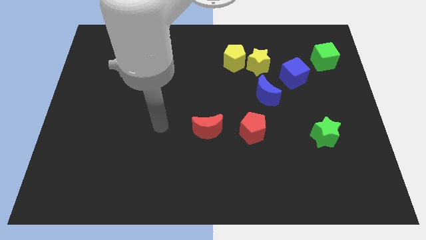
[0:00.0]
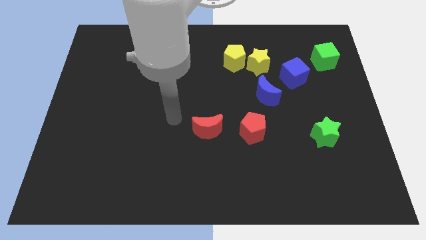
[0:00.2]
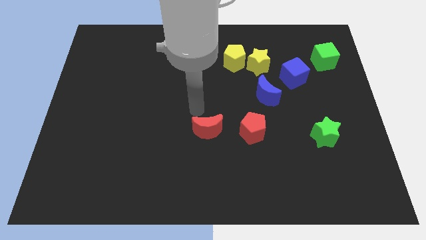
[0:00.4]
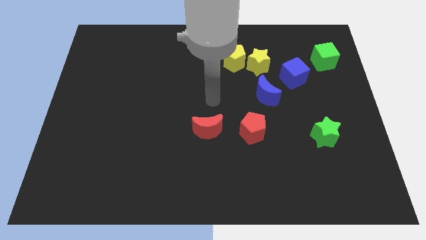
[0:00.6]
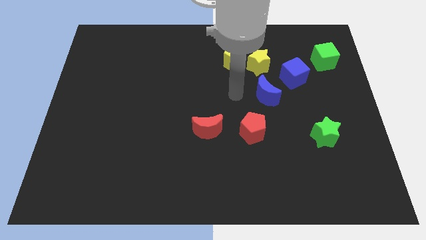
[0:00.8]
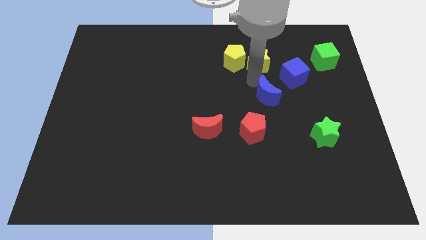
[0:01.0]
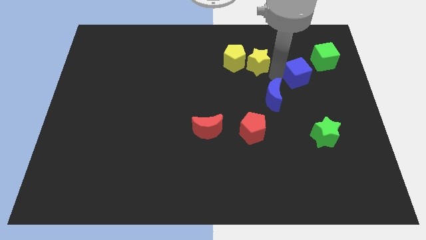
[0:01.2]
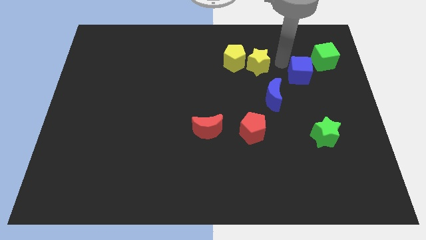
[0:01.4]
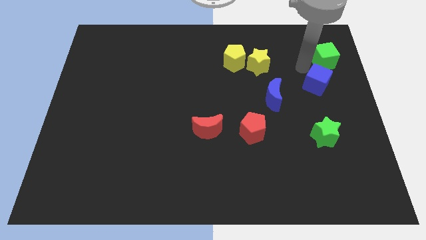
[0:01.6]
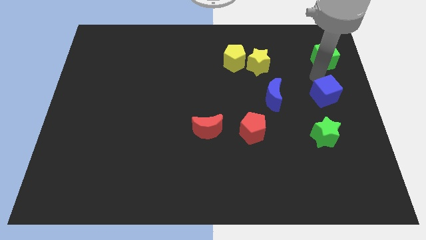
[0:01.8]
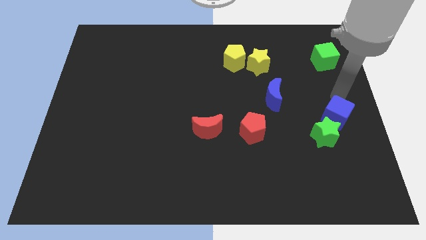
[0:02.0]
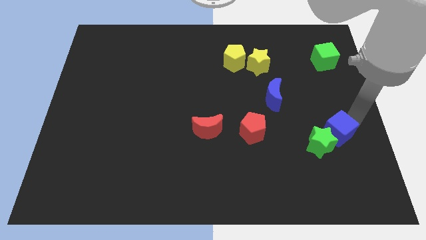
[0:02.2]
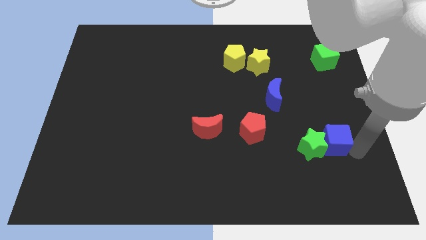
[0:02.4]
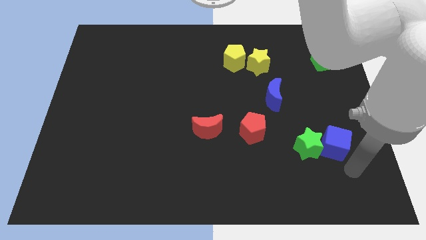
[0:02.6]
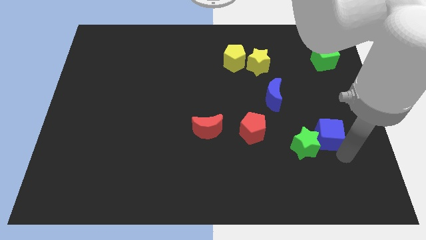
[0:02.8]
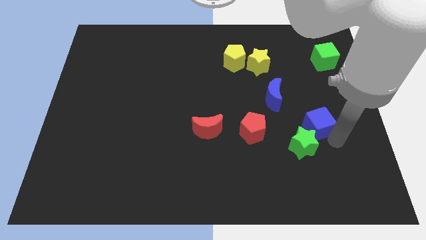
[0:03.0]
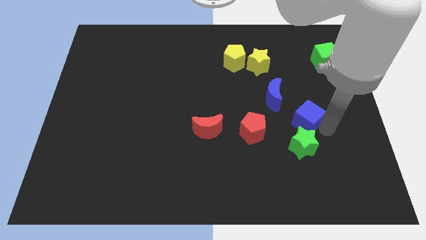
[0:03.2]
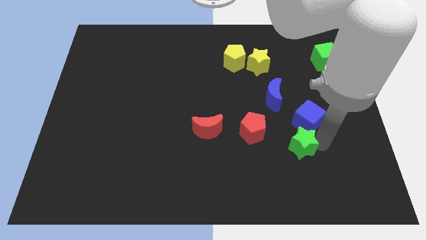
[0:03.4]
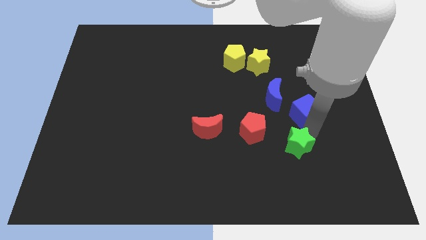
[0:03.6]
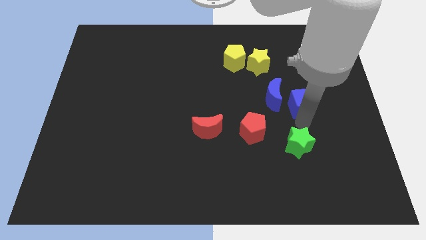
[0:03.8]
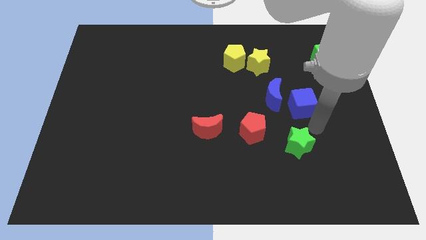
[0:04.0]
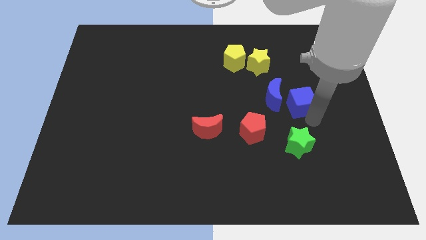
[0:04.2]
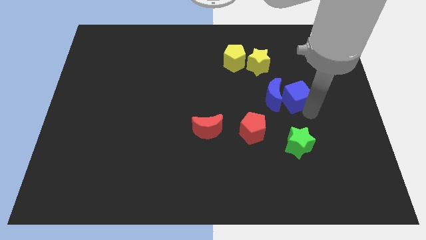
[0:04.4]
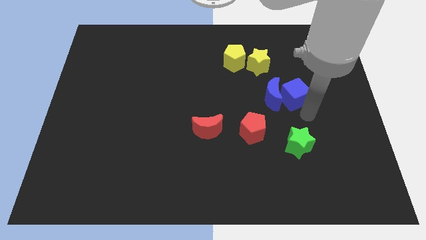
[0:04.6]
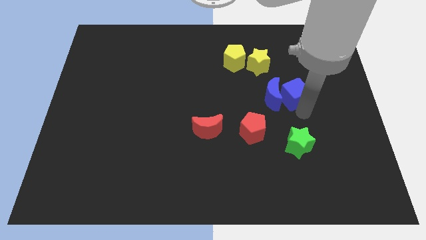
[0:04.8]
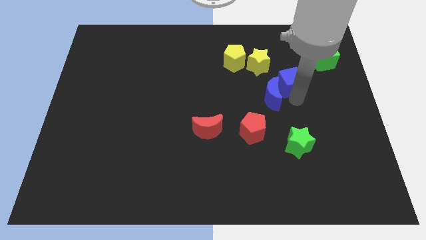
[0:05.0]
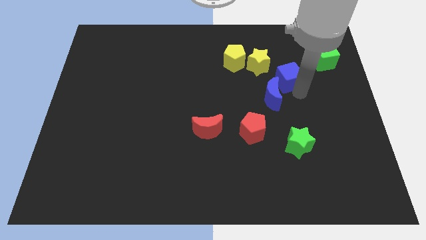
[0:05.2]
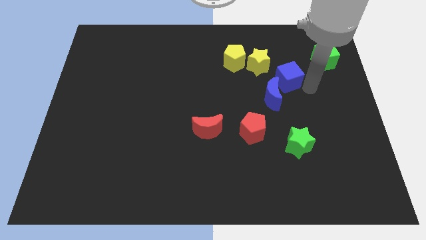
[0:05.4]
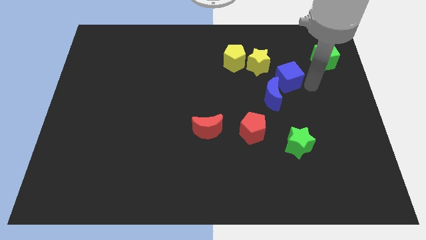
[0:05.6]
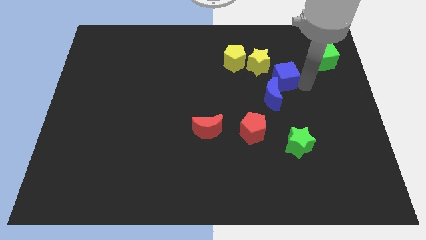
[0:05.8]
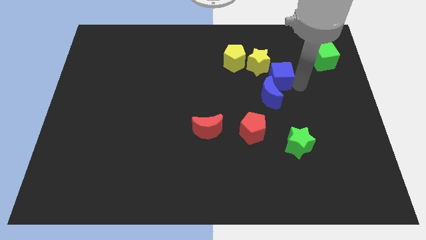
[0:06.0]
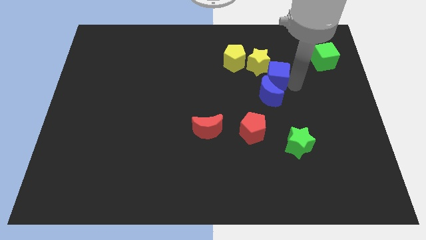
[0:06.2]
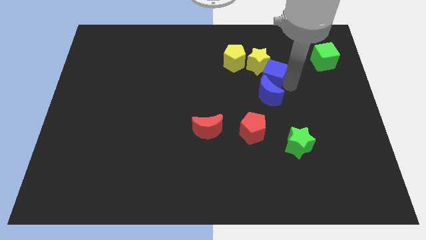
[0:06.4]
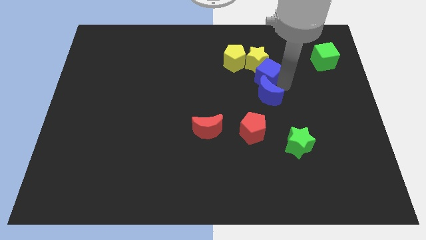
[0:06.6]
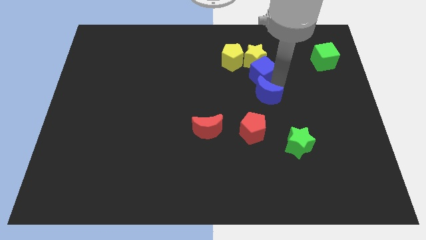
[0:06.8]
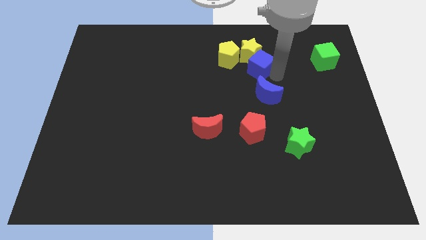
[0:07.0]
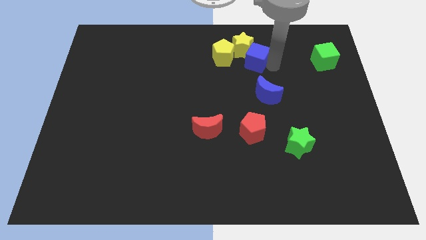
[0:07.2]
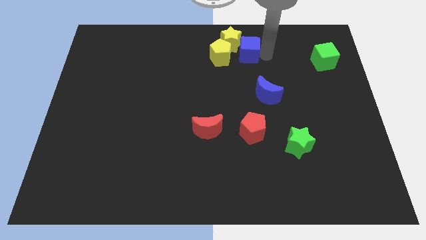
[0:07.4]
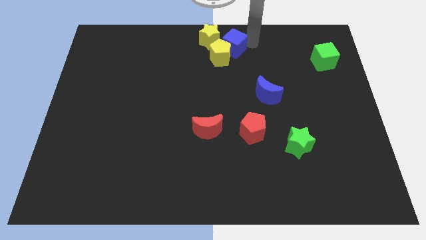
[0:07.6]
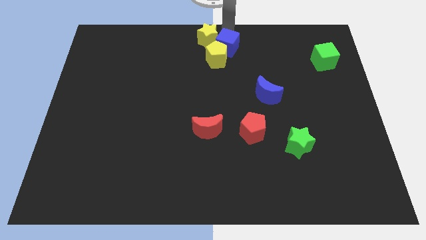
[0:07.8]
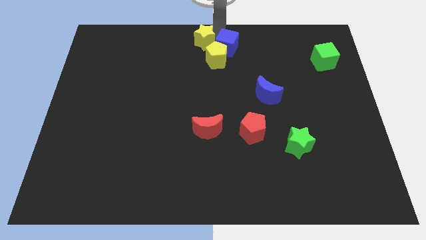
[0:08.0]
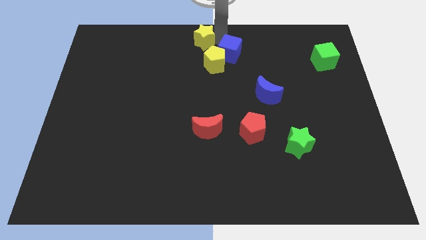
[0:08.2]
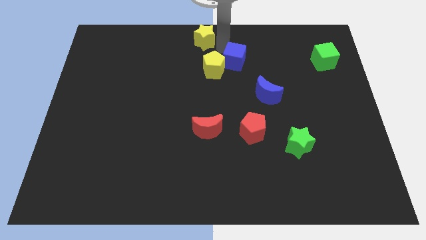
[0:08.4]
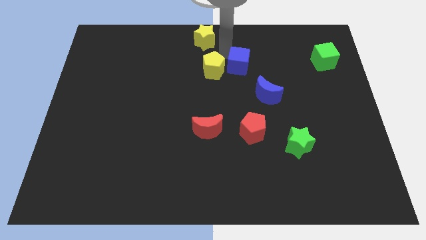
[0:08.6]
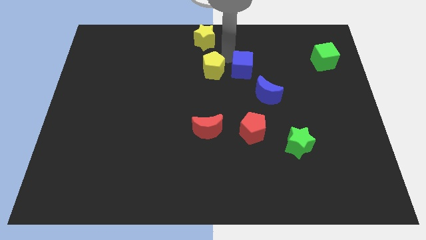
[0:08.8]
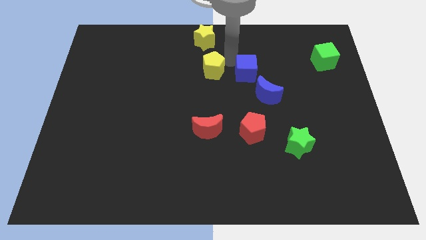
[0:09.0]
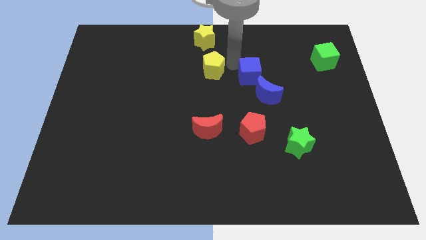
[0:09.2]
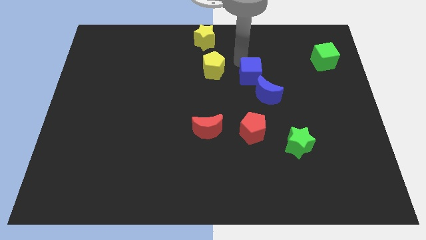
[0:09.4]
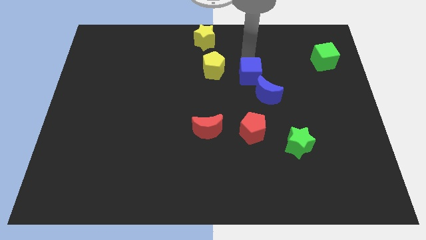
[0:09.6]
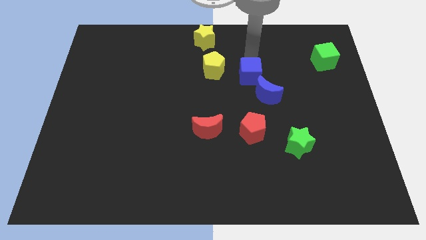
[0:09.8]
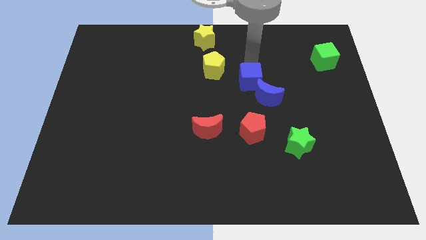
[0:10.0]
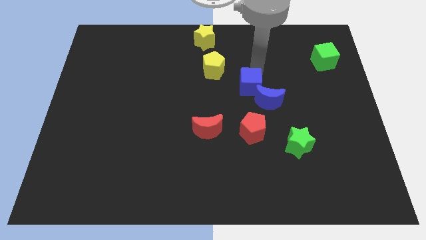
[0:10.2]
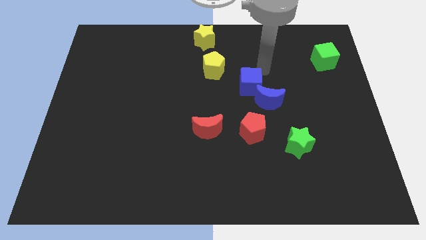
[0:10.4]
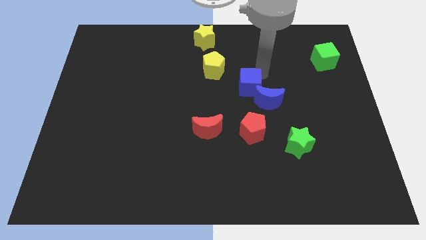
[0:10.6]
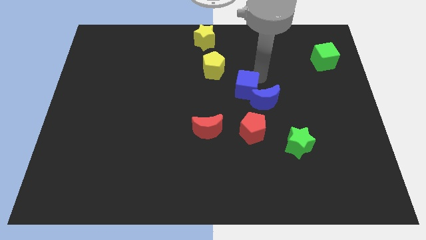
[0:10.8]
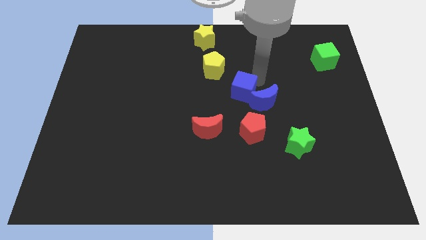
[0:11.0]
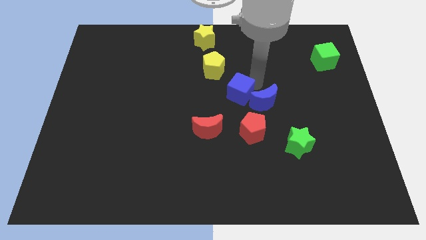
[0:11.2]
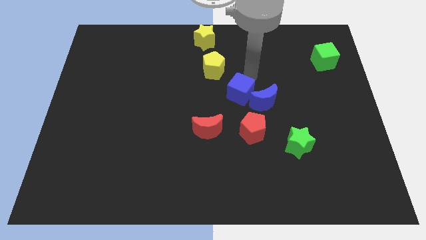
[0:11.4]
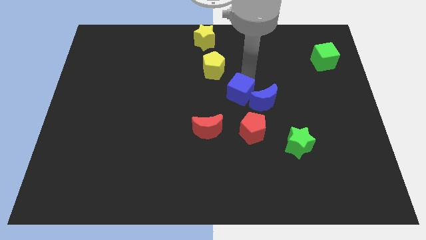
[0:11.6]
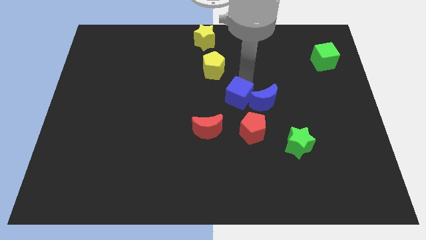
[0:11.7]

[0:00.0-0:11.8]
put the blue cube to the top right of the red moon

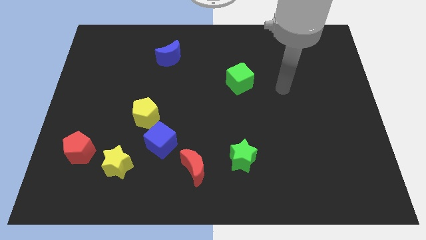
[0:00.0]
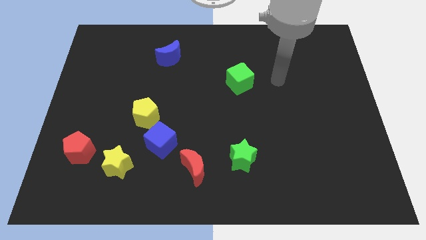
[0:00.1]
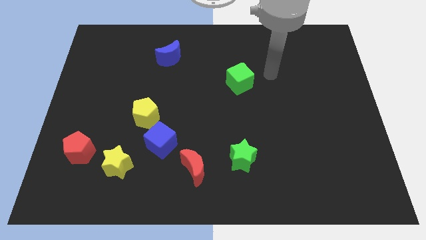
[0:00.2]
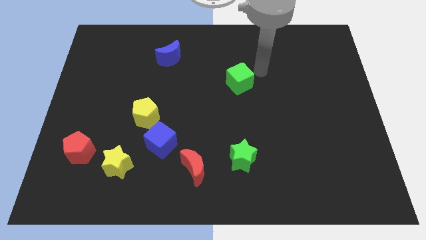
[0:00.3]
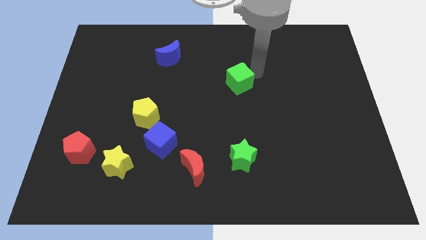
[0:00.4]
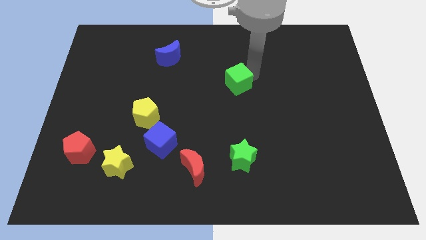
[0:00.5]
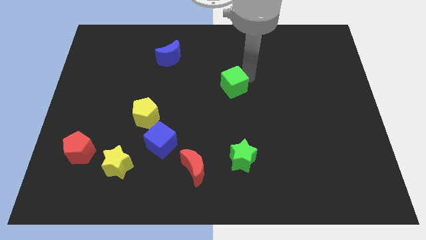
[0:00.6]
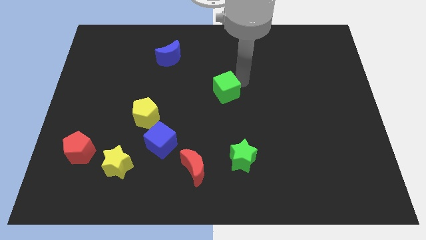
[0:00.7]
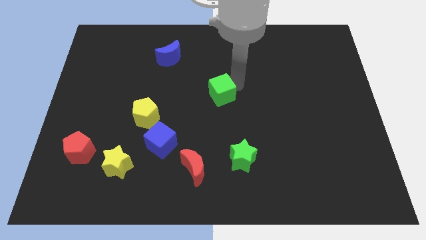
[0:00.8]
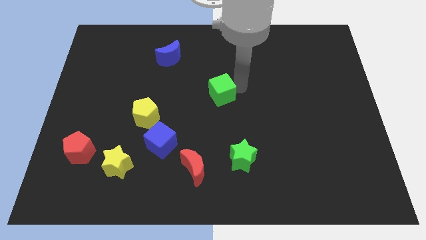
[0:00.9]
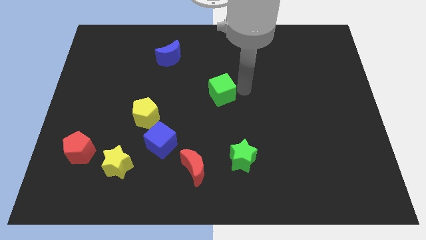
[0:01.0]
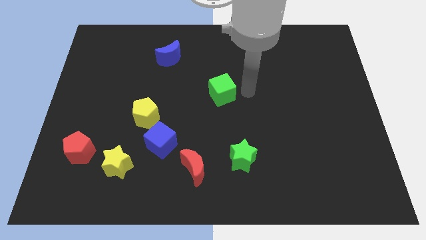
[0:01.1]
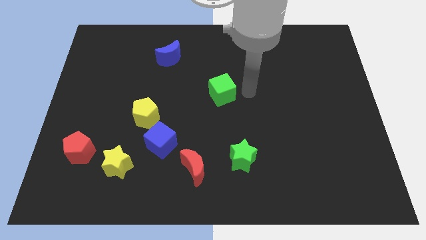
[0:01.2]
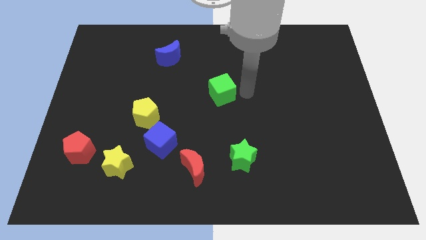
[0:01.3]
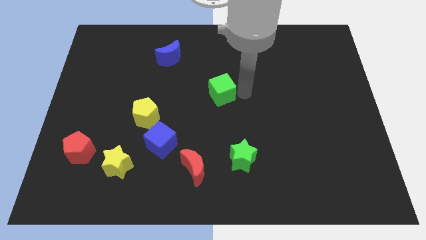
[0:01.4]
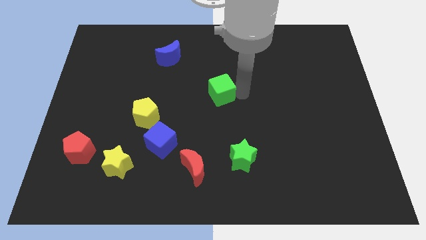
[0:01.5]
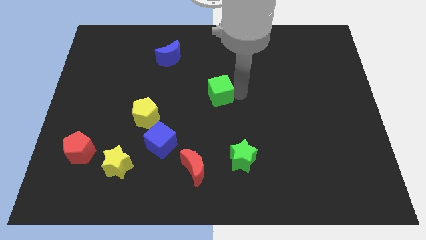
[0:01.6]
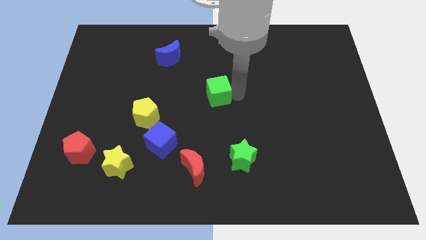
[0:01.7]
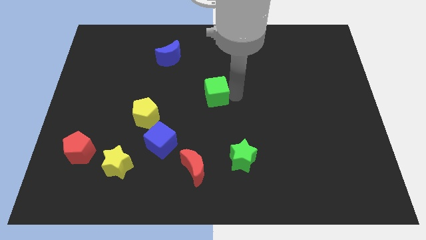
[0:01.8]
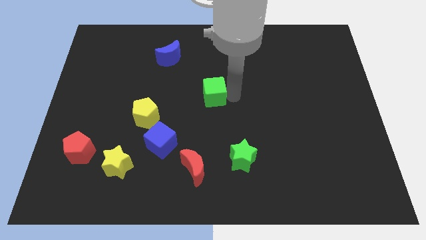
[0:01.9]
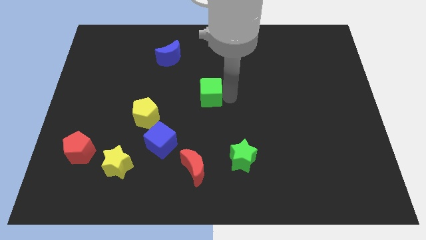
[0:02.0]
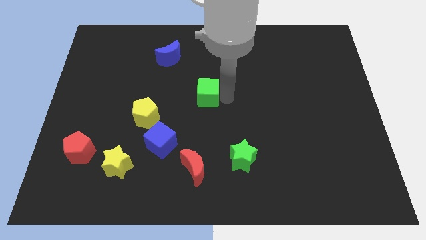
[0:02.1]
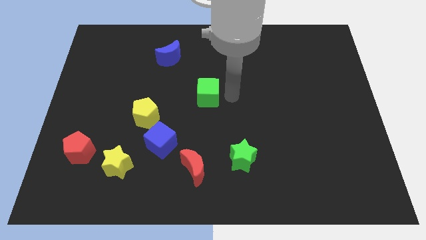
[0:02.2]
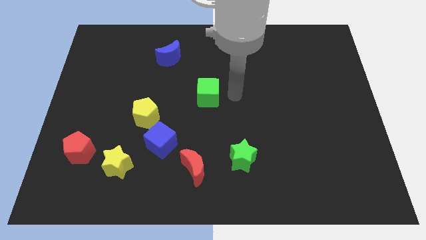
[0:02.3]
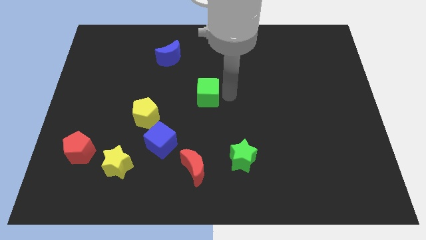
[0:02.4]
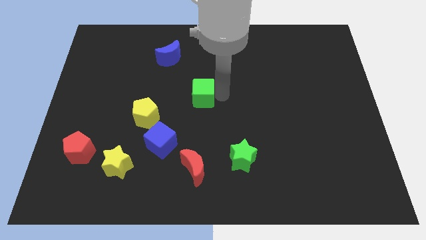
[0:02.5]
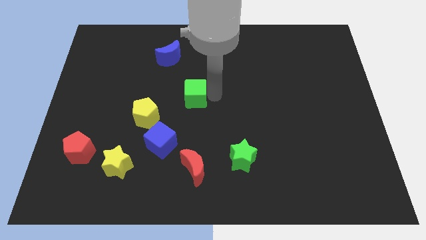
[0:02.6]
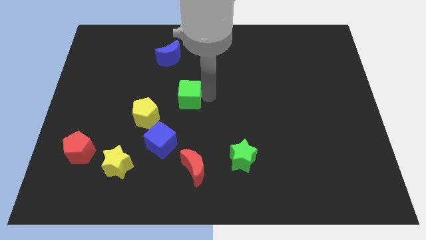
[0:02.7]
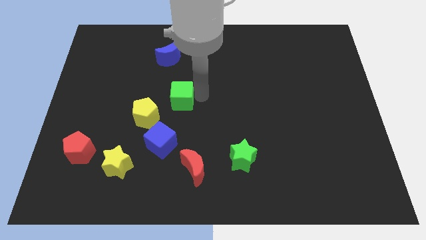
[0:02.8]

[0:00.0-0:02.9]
put the green cube to the top side of the blue cube
